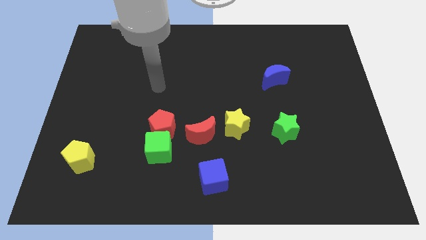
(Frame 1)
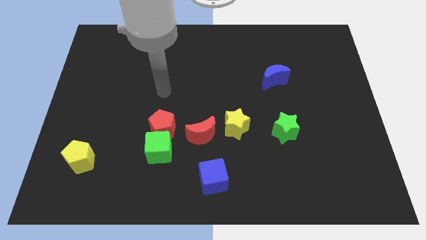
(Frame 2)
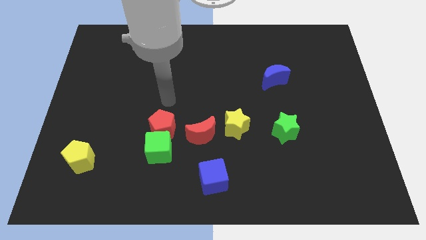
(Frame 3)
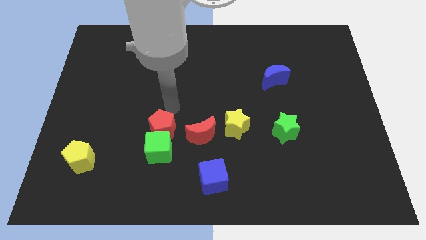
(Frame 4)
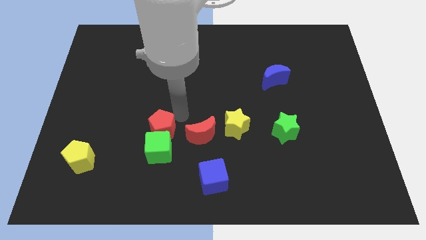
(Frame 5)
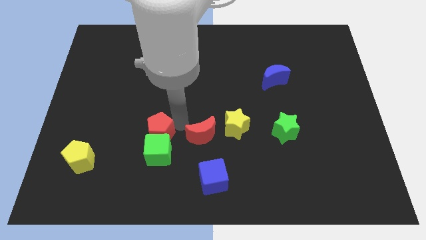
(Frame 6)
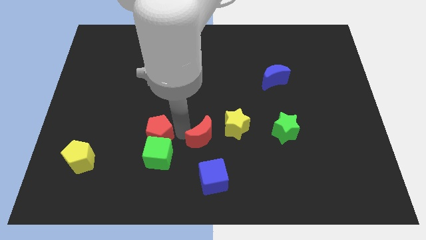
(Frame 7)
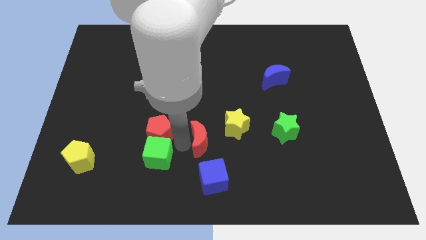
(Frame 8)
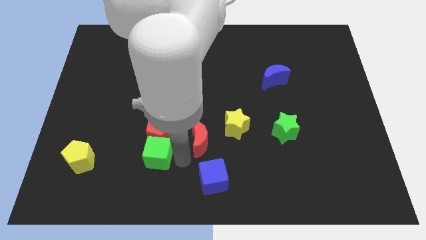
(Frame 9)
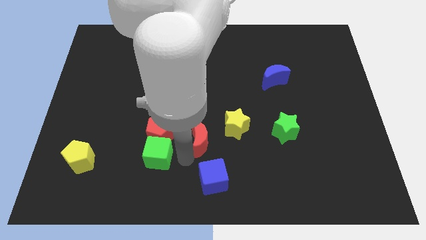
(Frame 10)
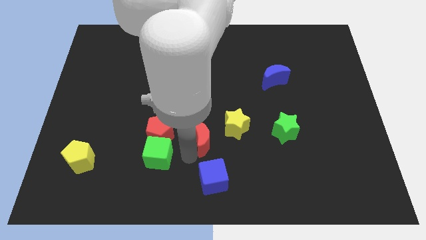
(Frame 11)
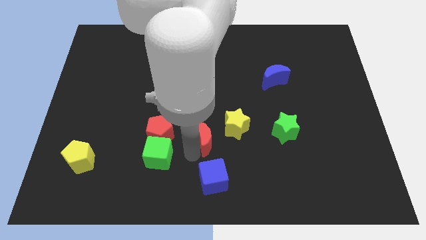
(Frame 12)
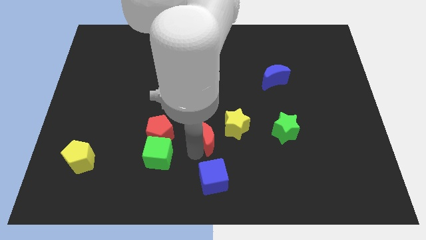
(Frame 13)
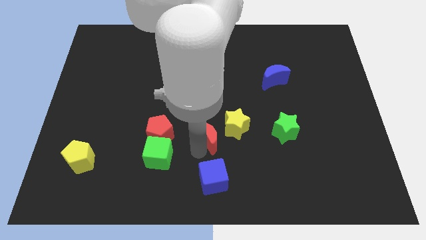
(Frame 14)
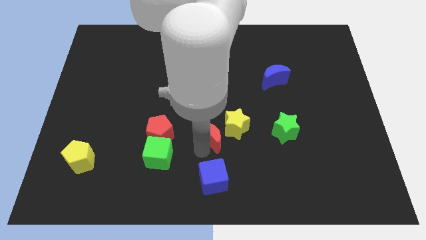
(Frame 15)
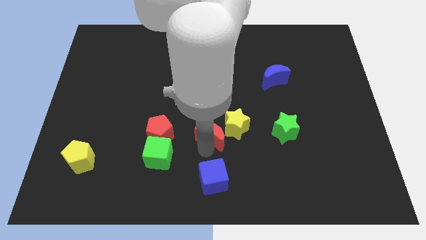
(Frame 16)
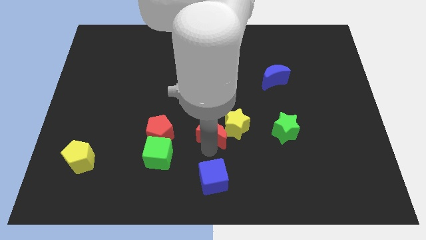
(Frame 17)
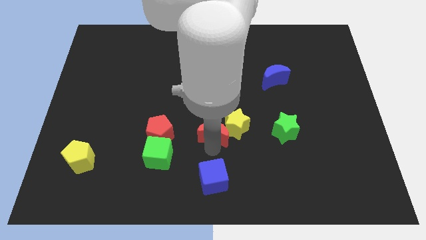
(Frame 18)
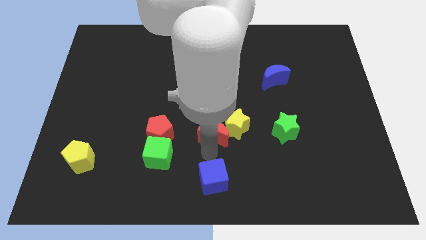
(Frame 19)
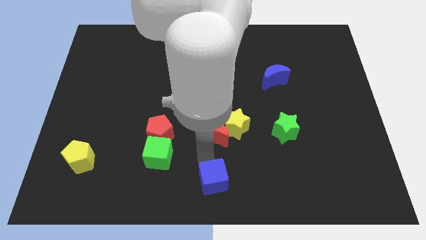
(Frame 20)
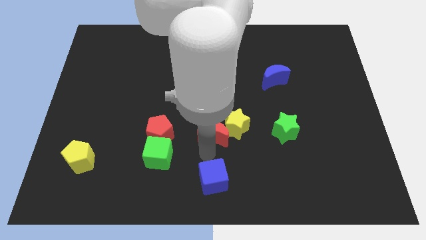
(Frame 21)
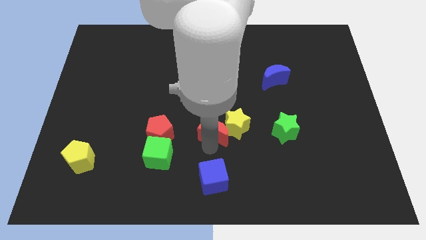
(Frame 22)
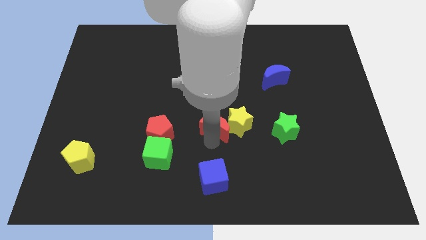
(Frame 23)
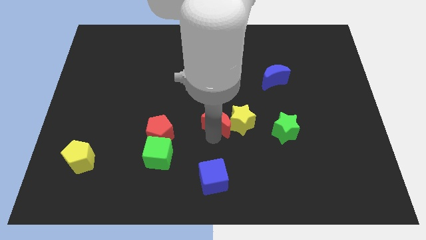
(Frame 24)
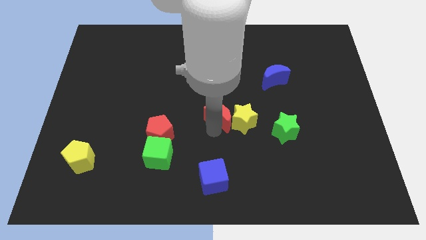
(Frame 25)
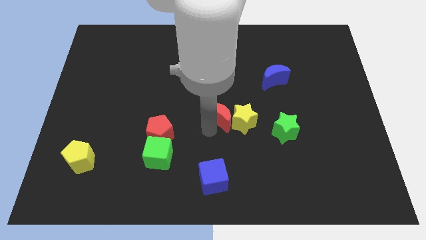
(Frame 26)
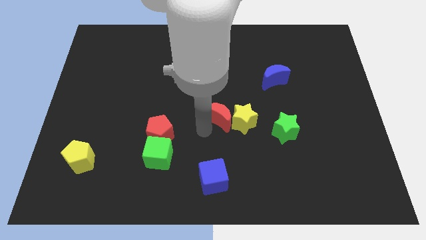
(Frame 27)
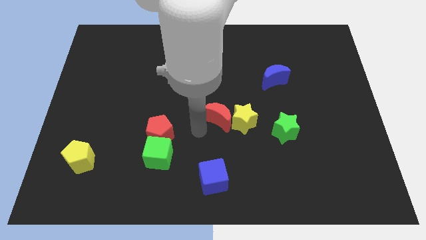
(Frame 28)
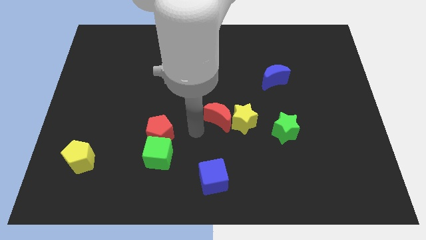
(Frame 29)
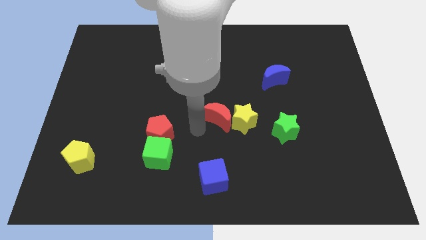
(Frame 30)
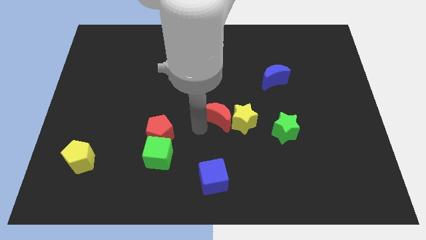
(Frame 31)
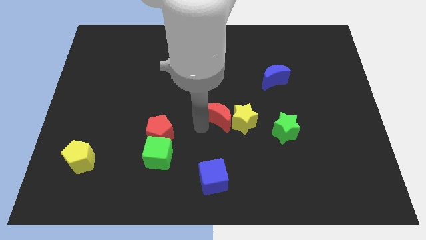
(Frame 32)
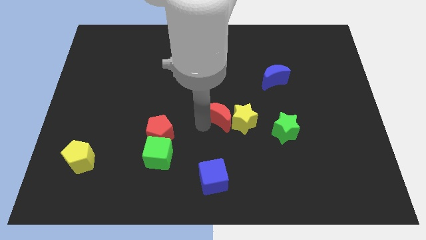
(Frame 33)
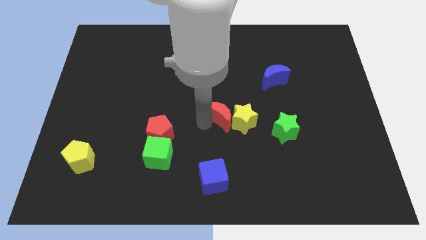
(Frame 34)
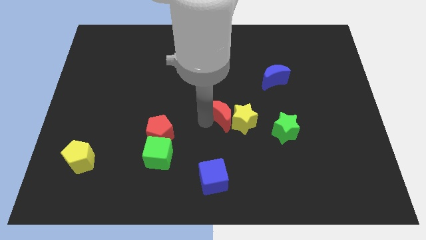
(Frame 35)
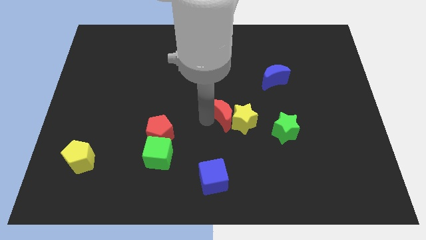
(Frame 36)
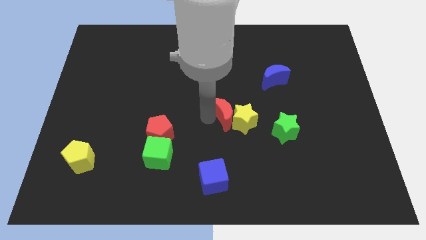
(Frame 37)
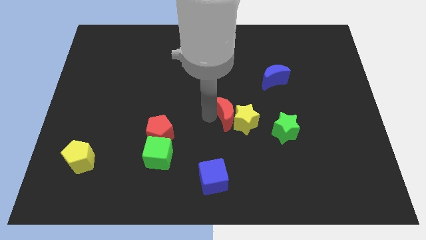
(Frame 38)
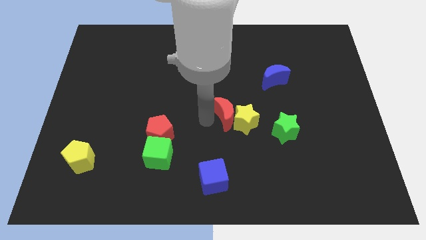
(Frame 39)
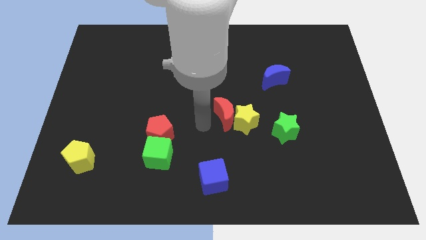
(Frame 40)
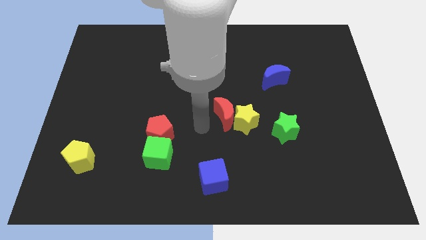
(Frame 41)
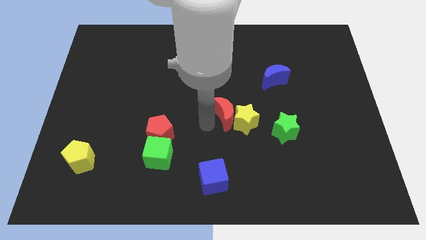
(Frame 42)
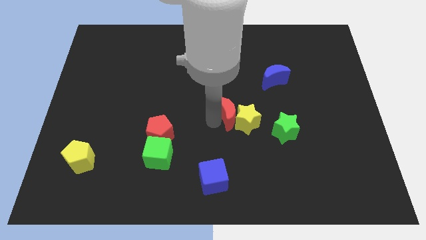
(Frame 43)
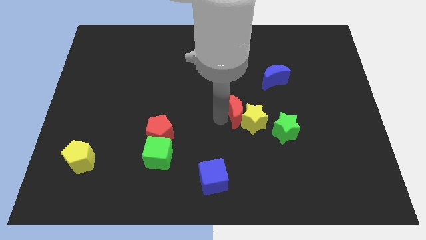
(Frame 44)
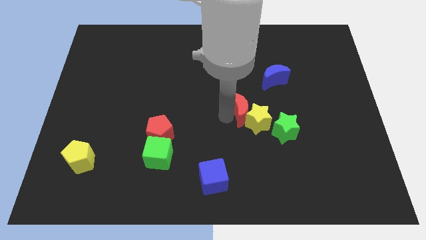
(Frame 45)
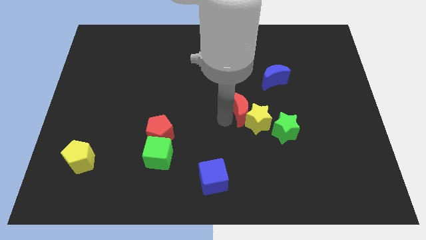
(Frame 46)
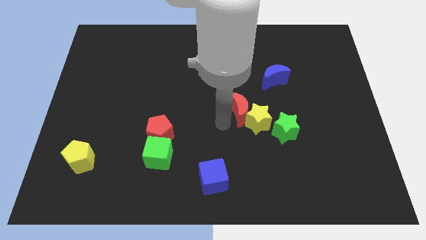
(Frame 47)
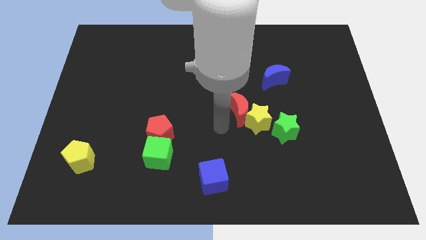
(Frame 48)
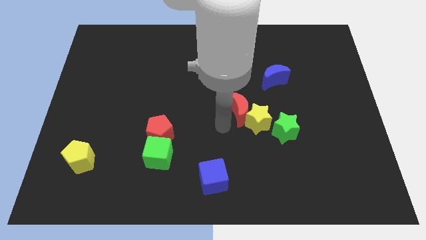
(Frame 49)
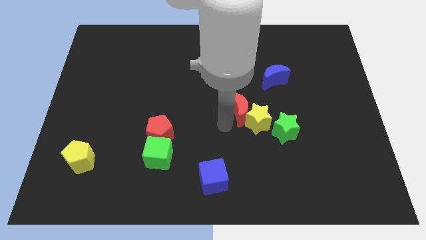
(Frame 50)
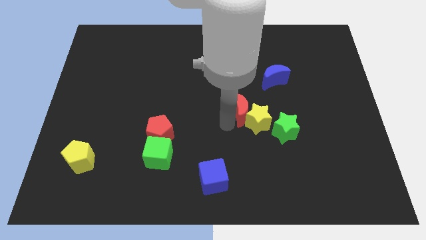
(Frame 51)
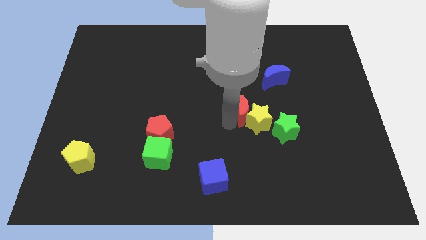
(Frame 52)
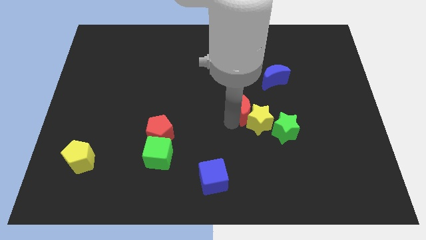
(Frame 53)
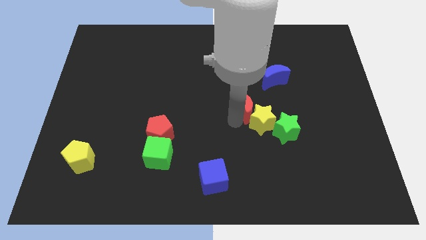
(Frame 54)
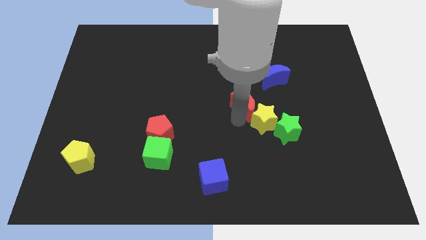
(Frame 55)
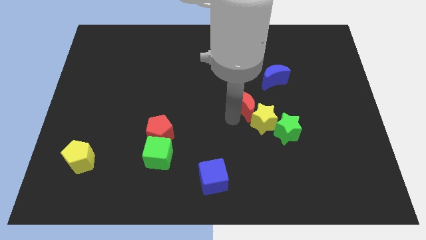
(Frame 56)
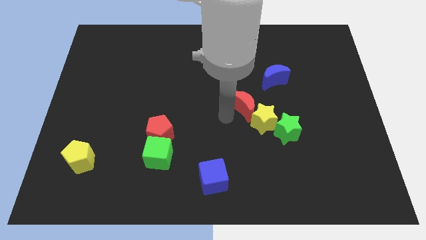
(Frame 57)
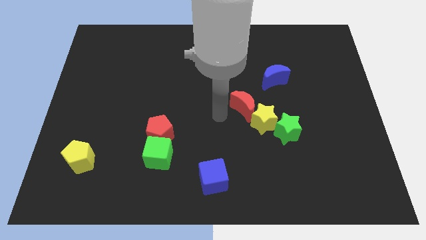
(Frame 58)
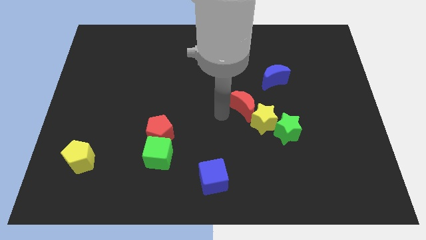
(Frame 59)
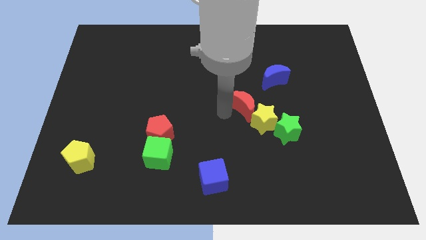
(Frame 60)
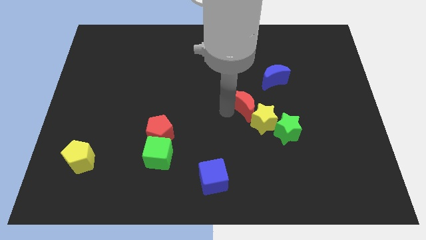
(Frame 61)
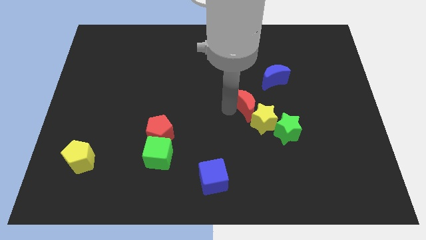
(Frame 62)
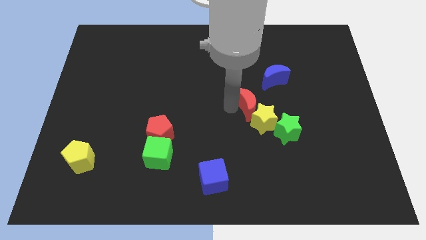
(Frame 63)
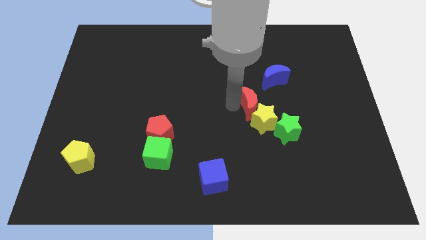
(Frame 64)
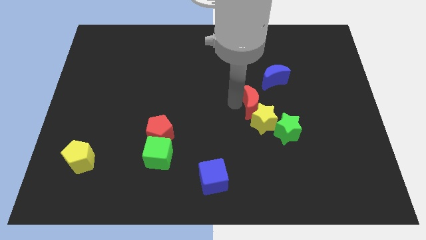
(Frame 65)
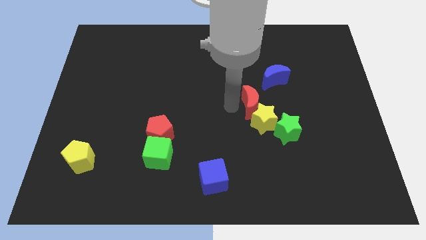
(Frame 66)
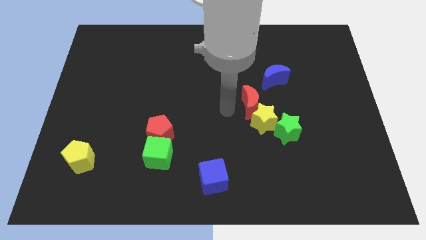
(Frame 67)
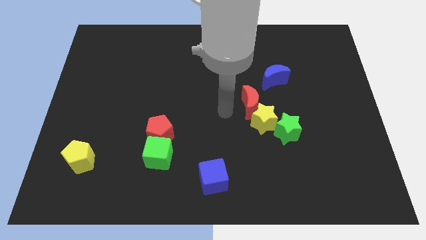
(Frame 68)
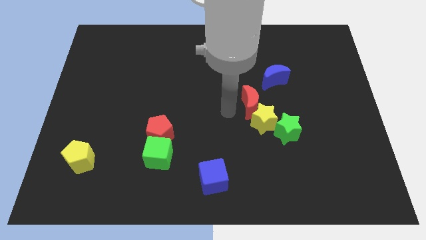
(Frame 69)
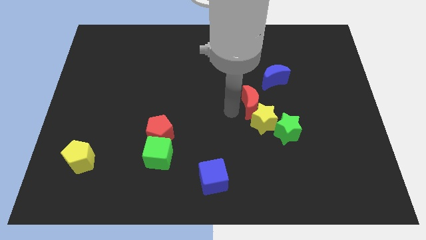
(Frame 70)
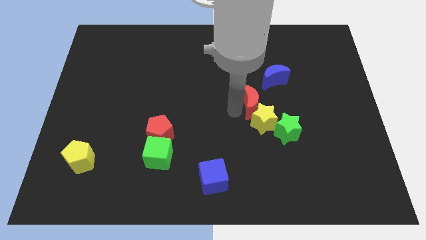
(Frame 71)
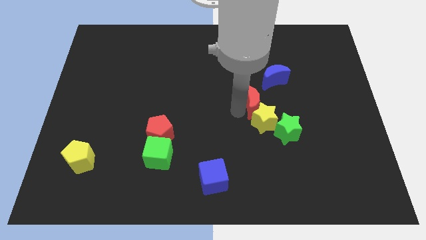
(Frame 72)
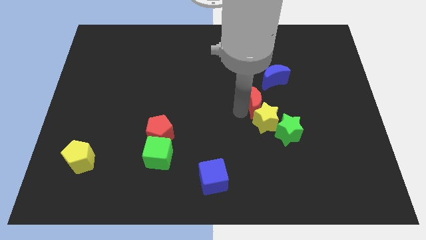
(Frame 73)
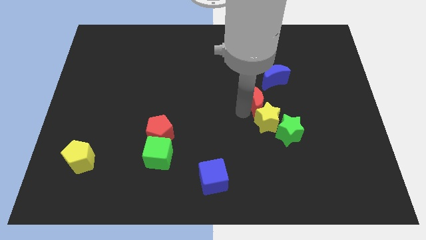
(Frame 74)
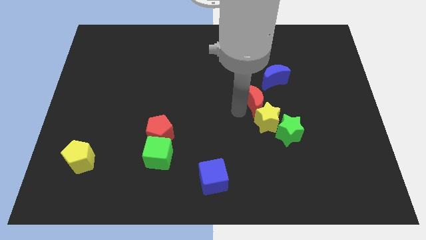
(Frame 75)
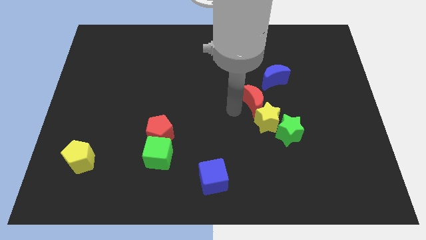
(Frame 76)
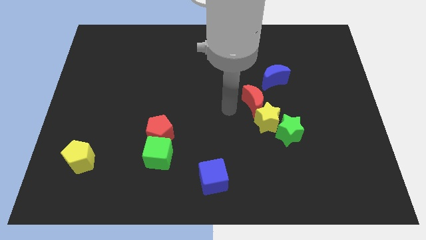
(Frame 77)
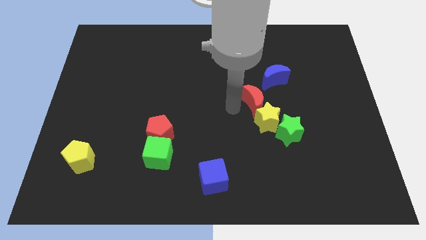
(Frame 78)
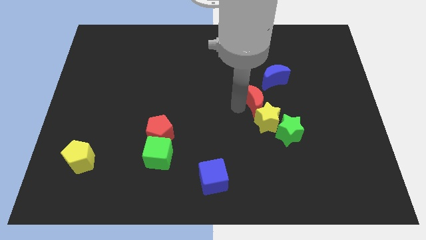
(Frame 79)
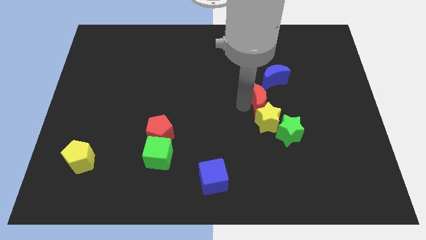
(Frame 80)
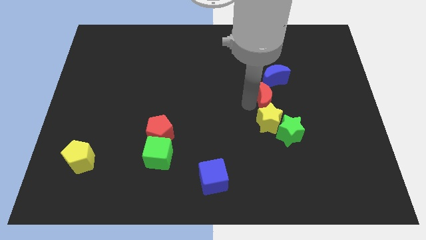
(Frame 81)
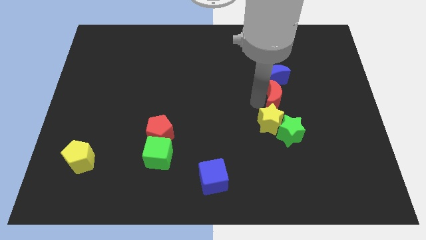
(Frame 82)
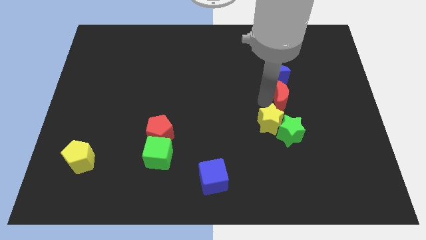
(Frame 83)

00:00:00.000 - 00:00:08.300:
push the red moon diagonally down and to the right of the blue moon

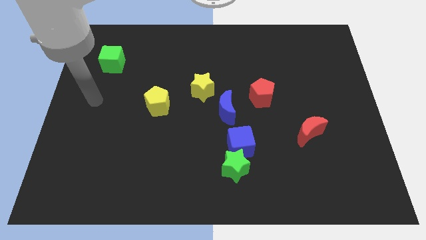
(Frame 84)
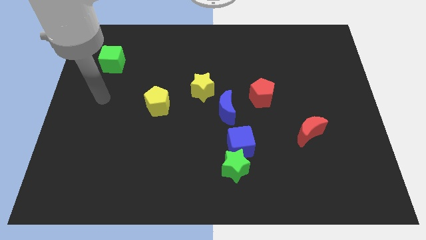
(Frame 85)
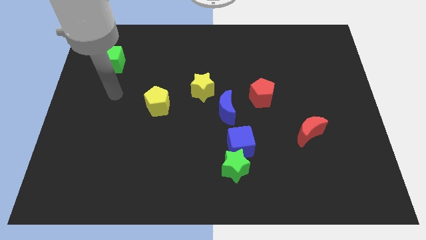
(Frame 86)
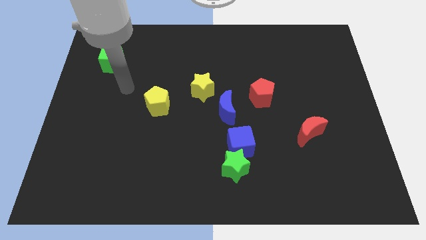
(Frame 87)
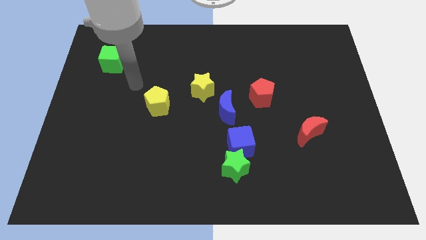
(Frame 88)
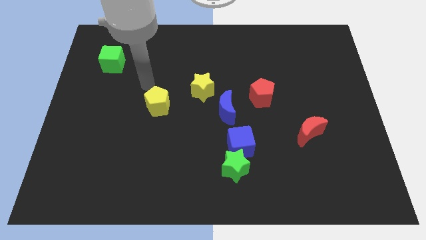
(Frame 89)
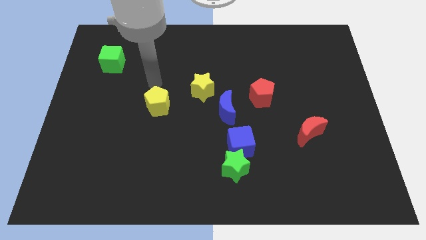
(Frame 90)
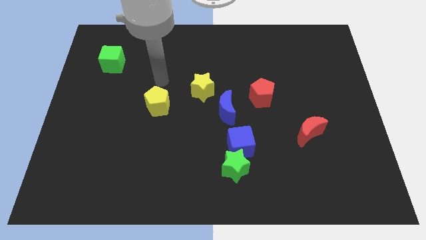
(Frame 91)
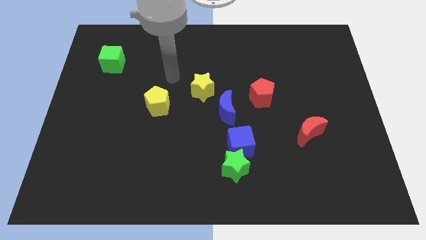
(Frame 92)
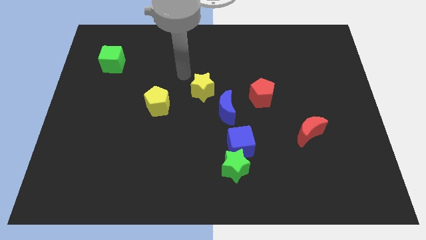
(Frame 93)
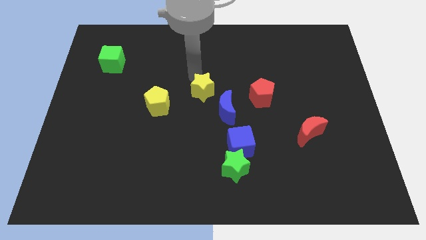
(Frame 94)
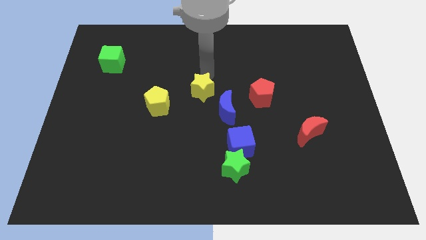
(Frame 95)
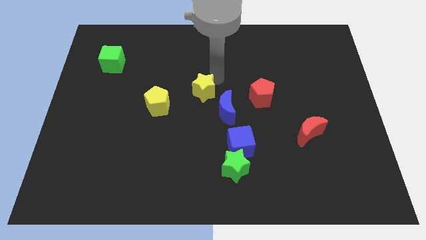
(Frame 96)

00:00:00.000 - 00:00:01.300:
put the blue moon below the yellow star
